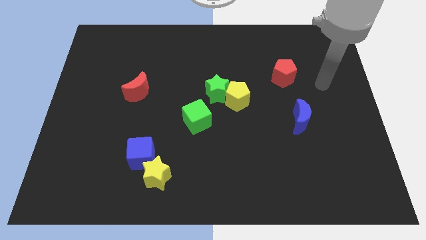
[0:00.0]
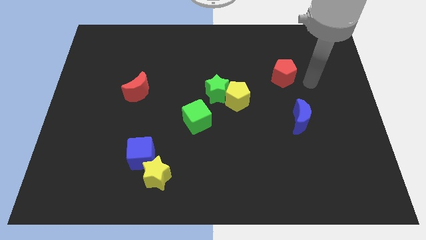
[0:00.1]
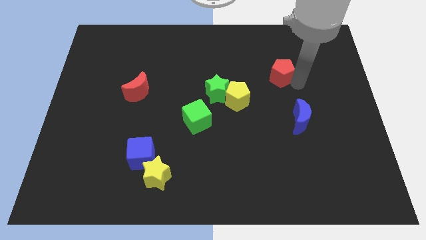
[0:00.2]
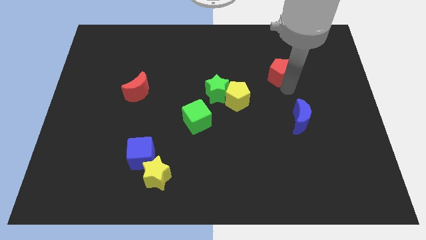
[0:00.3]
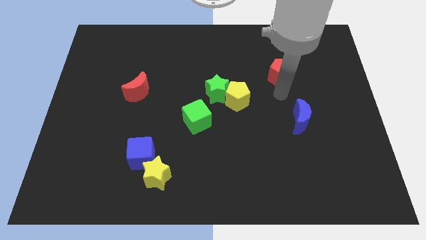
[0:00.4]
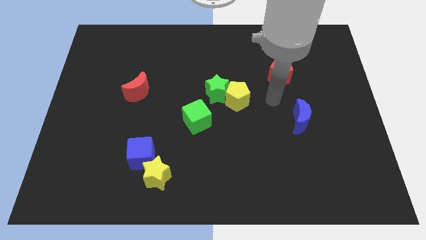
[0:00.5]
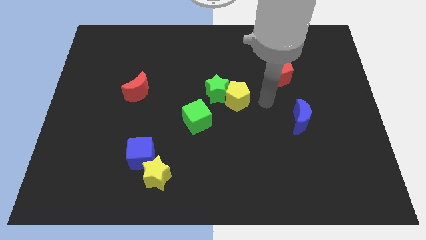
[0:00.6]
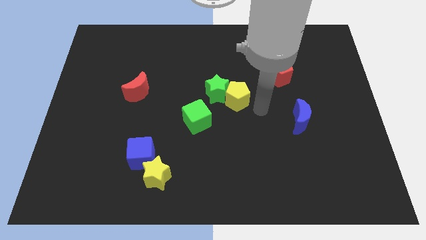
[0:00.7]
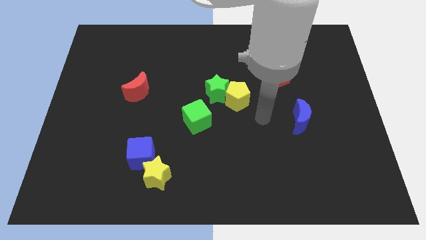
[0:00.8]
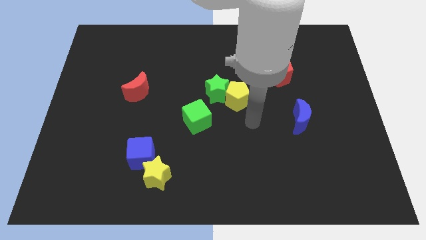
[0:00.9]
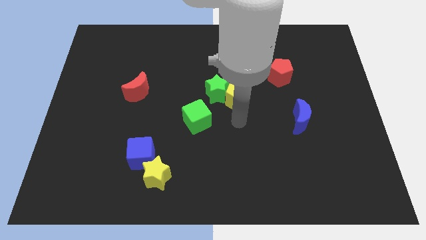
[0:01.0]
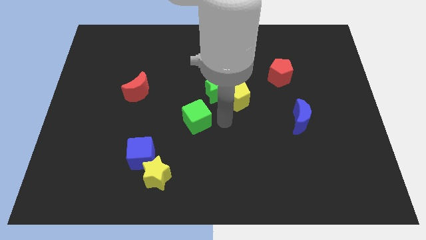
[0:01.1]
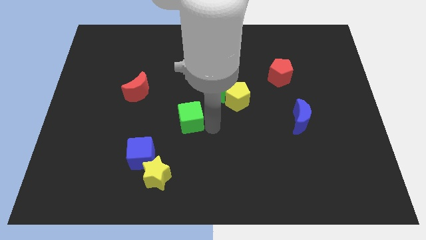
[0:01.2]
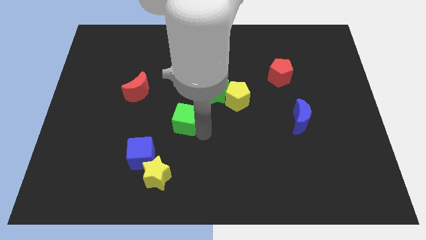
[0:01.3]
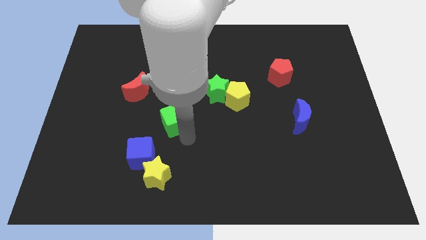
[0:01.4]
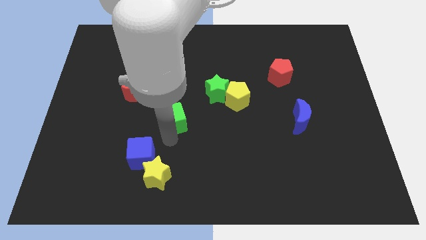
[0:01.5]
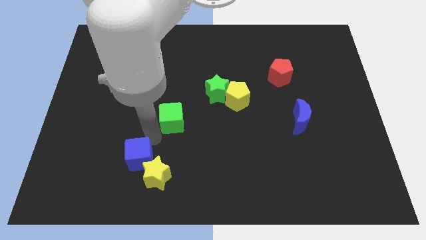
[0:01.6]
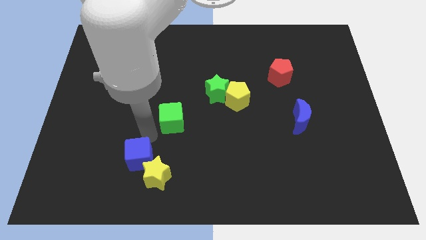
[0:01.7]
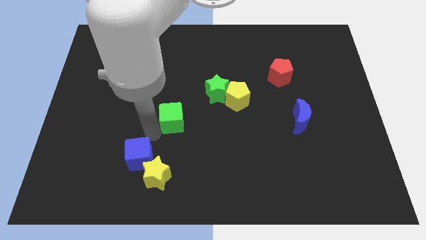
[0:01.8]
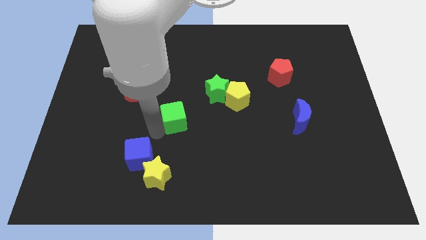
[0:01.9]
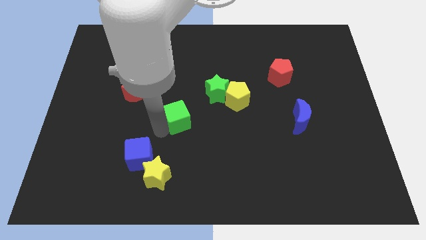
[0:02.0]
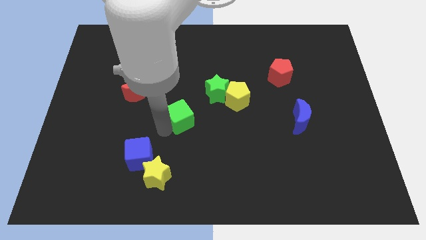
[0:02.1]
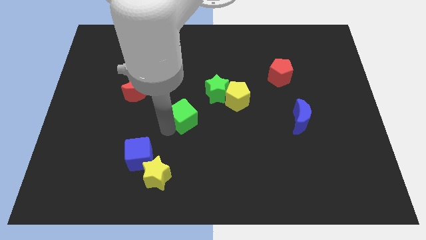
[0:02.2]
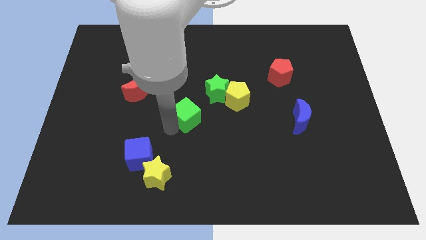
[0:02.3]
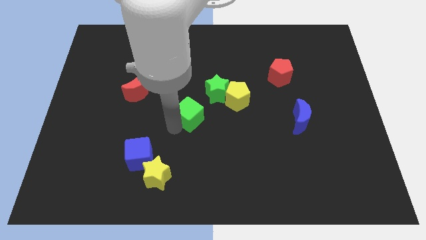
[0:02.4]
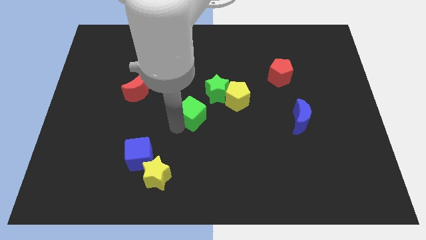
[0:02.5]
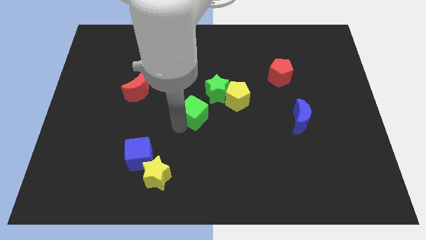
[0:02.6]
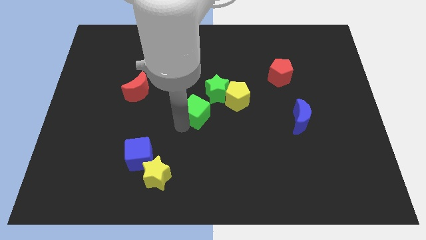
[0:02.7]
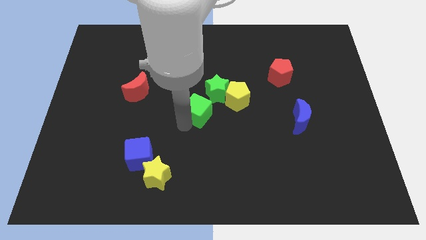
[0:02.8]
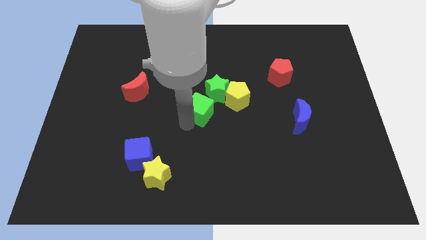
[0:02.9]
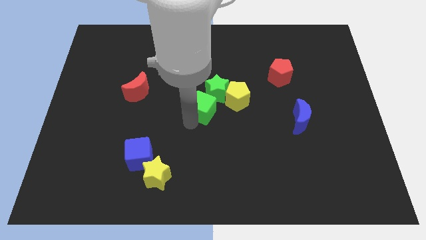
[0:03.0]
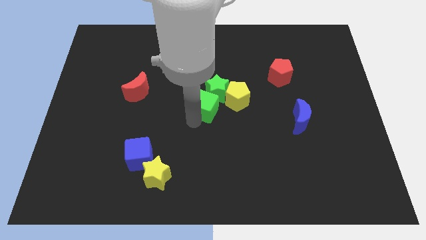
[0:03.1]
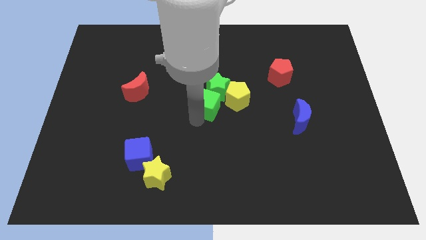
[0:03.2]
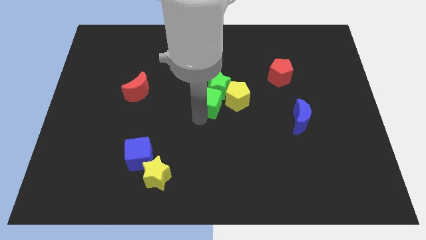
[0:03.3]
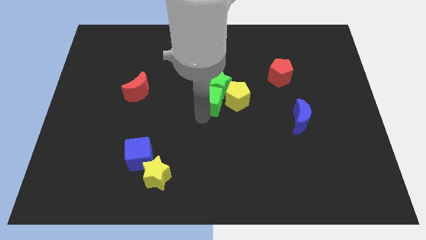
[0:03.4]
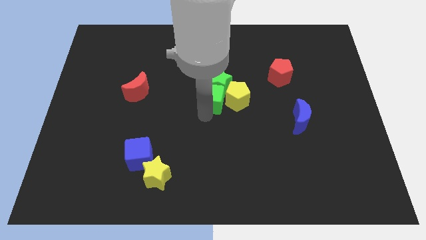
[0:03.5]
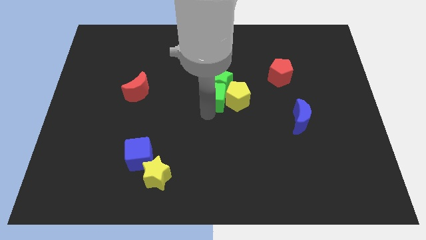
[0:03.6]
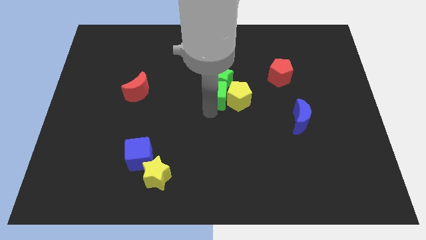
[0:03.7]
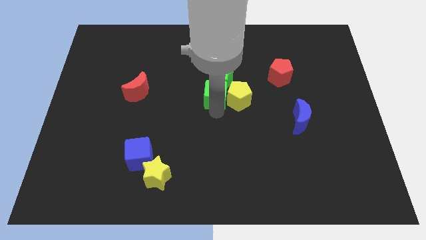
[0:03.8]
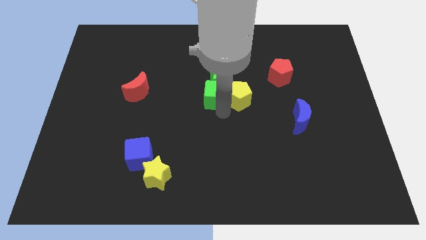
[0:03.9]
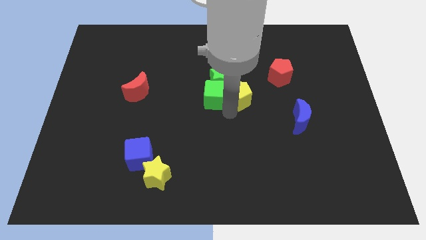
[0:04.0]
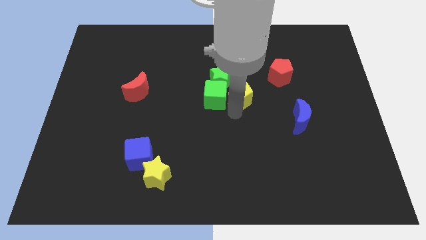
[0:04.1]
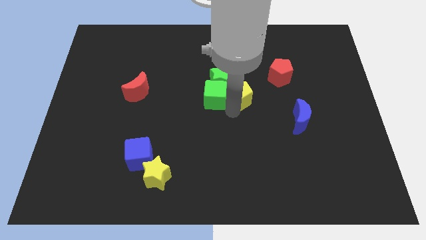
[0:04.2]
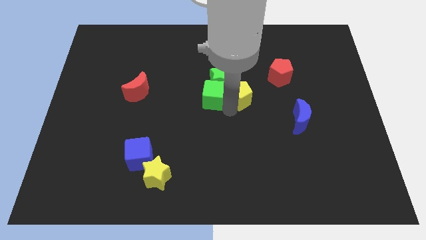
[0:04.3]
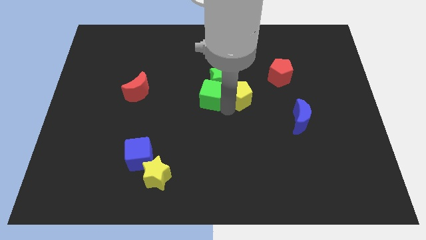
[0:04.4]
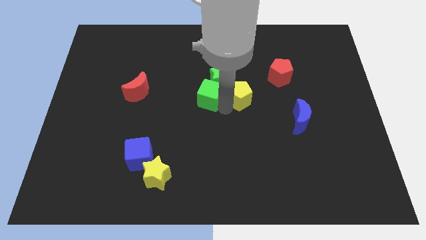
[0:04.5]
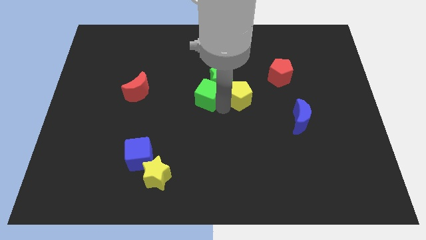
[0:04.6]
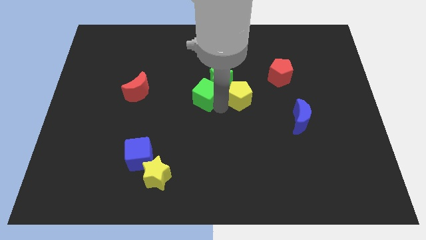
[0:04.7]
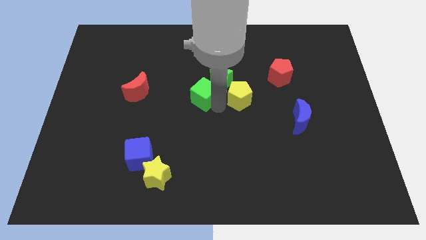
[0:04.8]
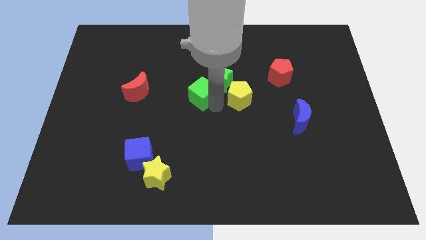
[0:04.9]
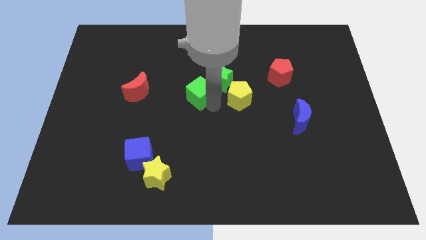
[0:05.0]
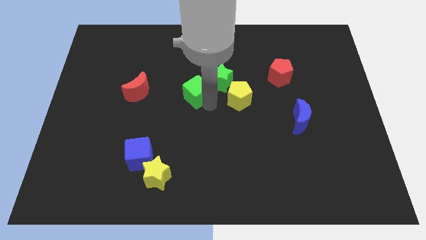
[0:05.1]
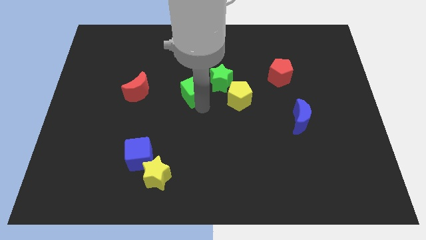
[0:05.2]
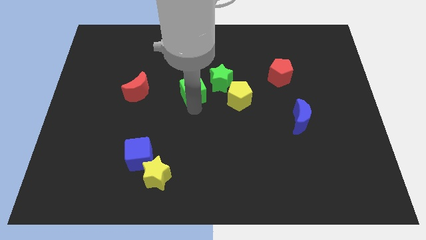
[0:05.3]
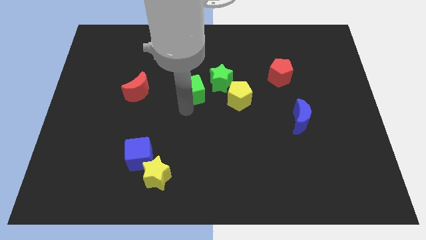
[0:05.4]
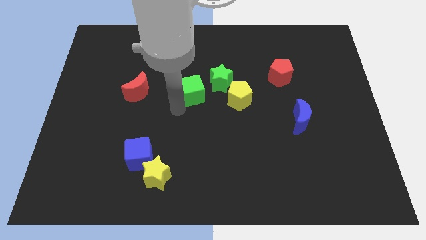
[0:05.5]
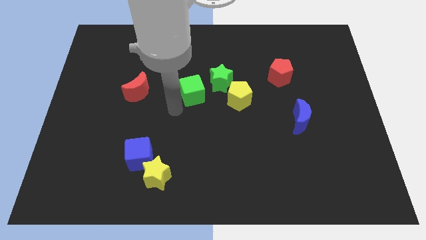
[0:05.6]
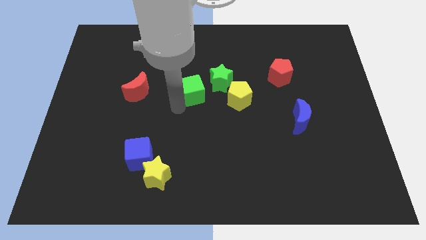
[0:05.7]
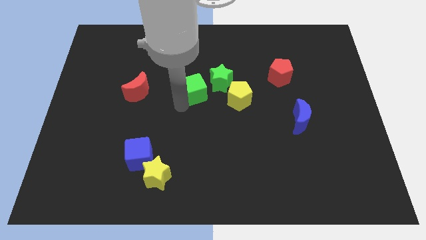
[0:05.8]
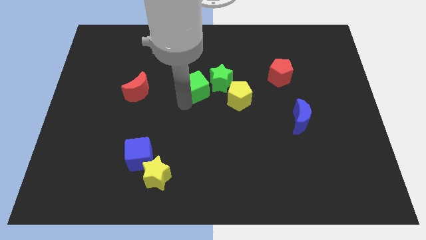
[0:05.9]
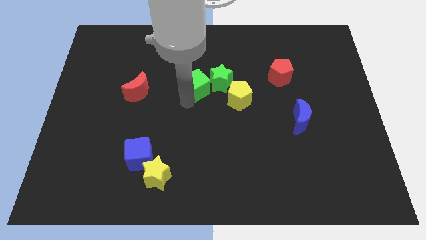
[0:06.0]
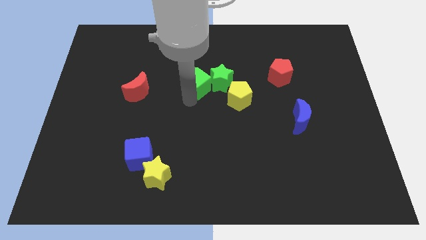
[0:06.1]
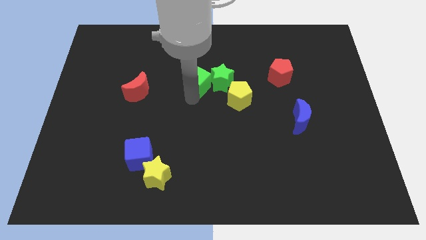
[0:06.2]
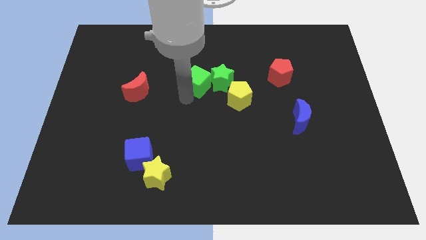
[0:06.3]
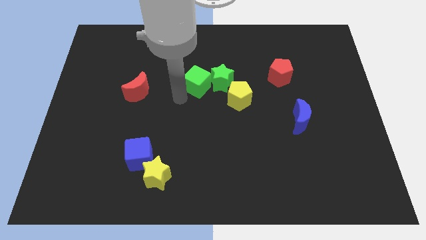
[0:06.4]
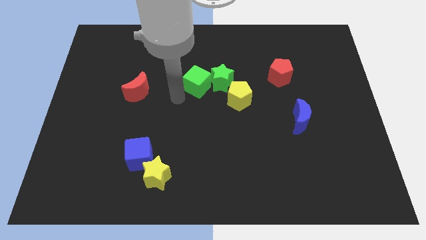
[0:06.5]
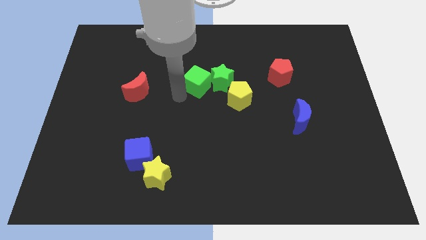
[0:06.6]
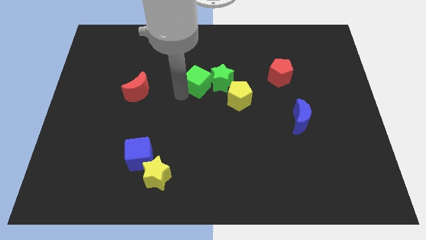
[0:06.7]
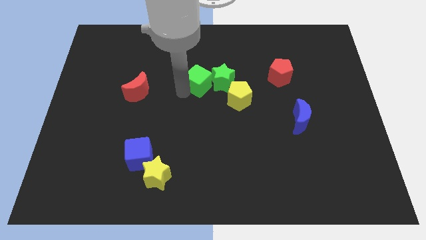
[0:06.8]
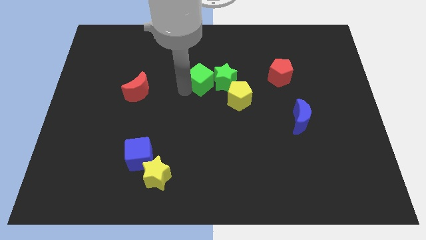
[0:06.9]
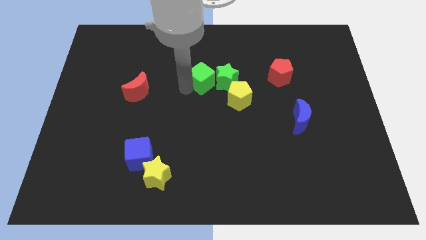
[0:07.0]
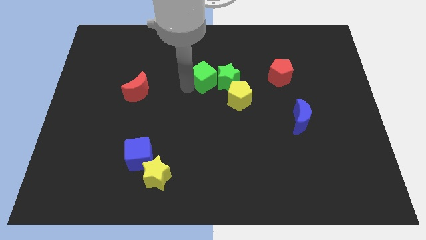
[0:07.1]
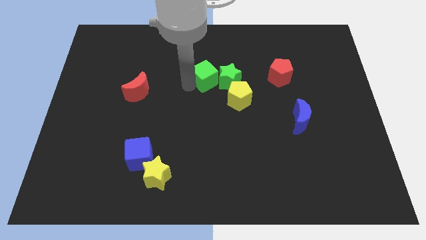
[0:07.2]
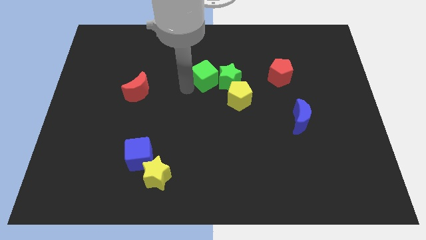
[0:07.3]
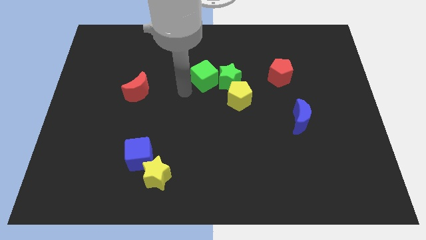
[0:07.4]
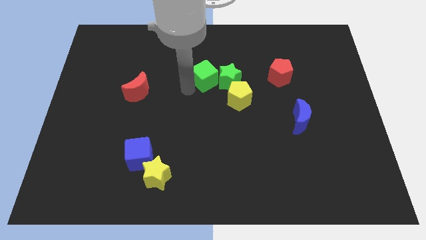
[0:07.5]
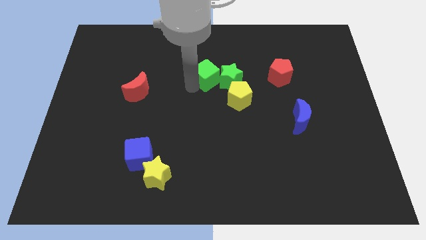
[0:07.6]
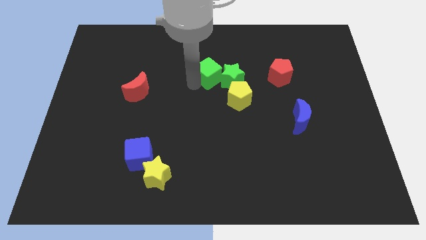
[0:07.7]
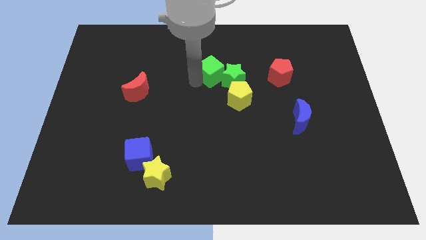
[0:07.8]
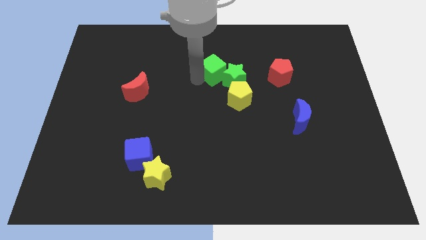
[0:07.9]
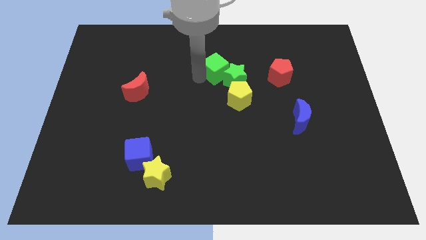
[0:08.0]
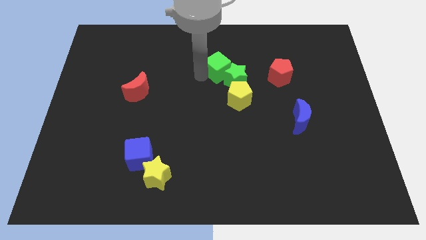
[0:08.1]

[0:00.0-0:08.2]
put the green cube to the top of the yellow pentagon
